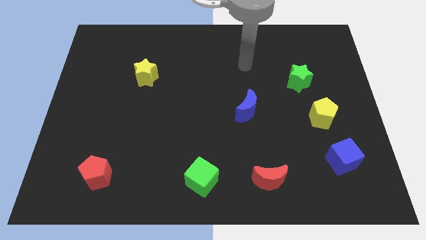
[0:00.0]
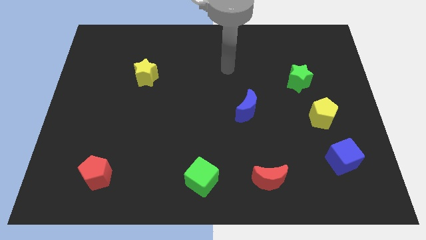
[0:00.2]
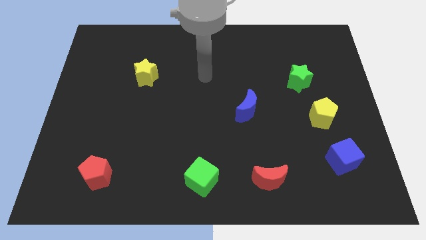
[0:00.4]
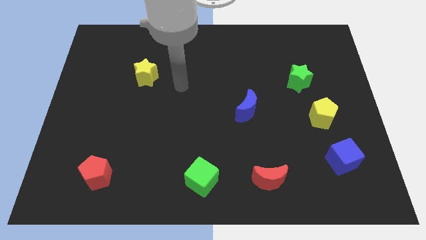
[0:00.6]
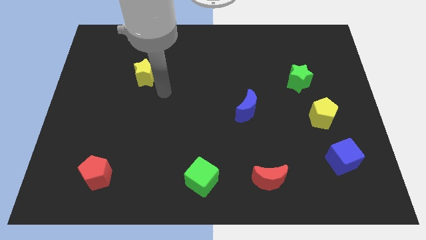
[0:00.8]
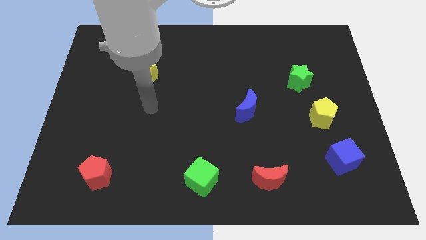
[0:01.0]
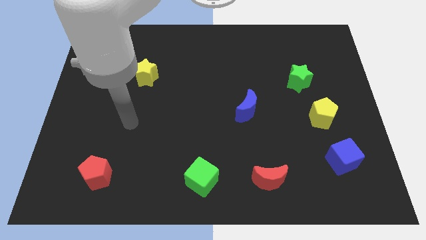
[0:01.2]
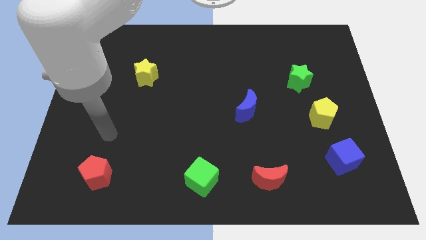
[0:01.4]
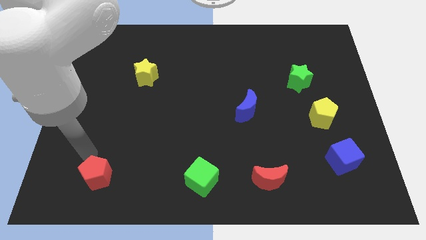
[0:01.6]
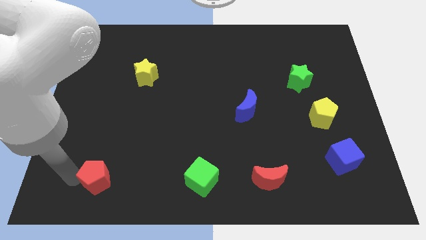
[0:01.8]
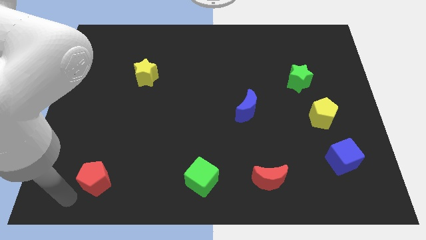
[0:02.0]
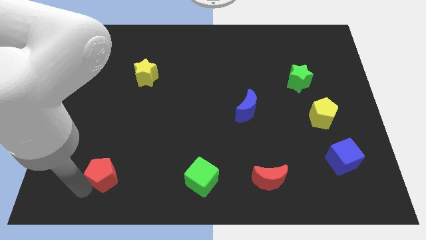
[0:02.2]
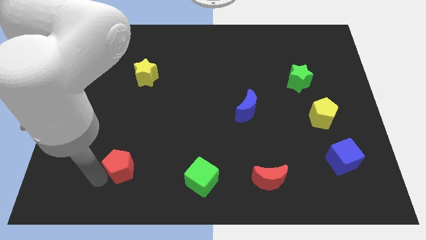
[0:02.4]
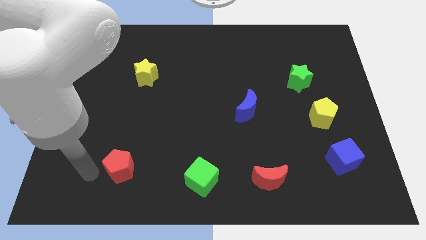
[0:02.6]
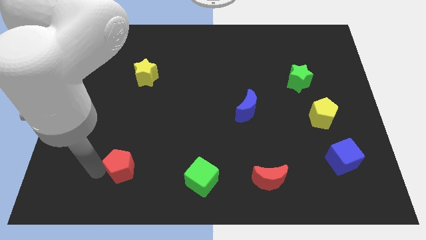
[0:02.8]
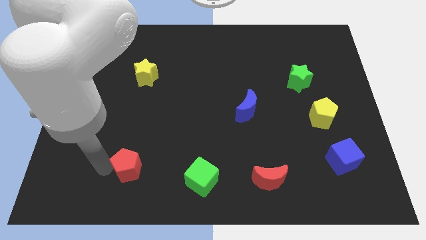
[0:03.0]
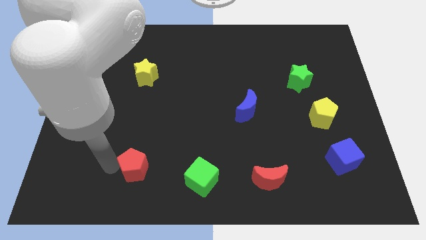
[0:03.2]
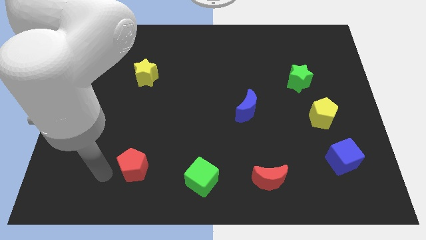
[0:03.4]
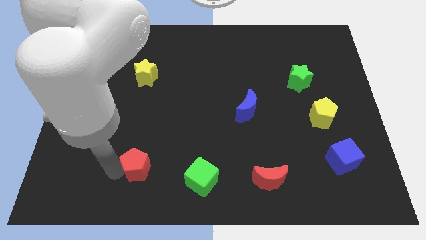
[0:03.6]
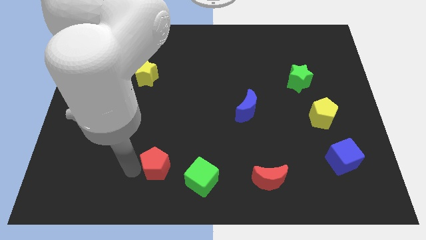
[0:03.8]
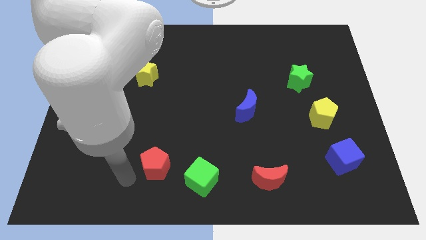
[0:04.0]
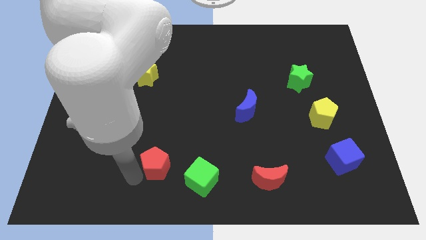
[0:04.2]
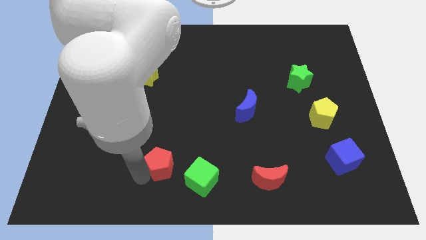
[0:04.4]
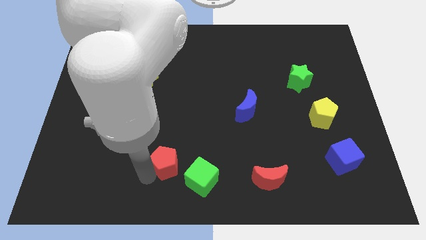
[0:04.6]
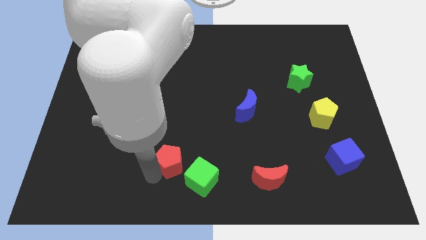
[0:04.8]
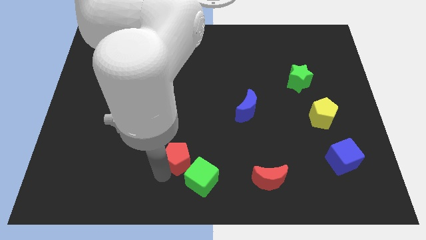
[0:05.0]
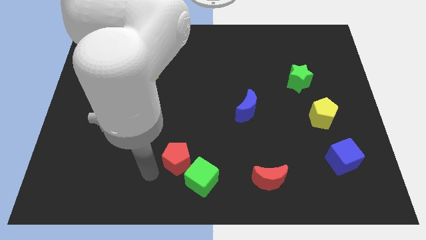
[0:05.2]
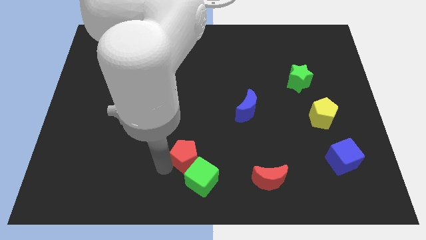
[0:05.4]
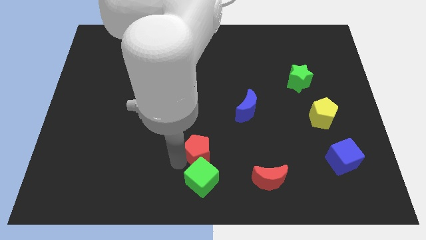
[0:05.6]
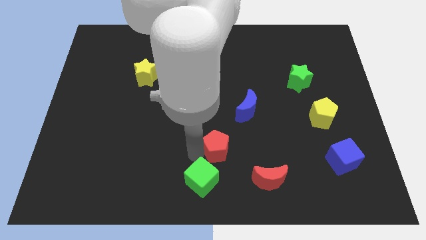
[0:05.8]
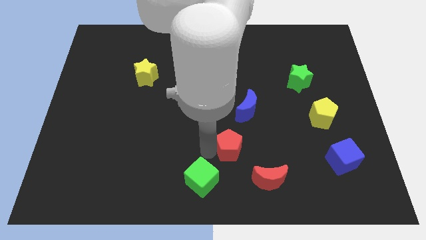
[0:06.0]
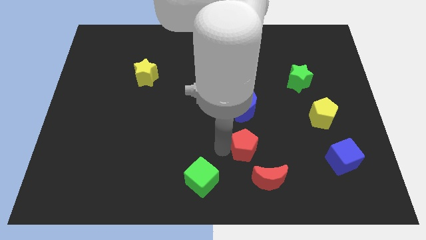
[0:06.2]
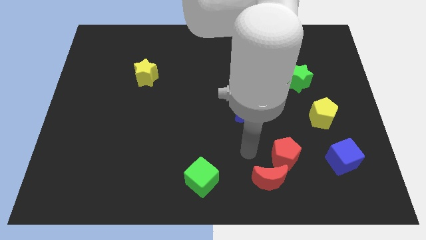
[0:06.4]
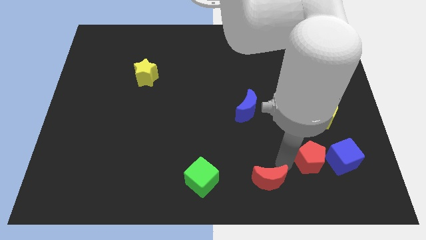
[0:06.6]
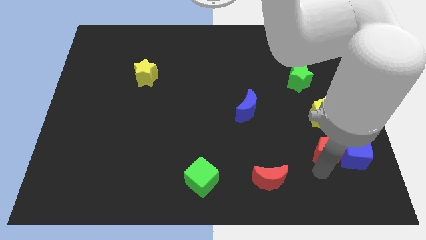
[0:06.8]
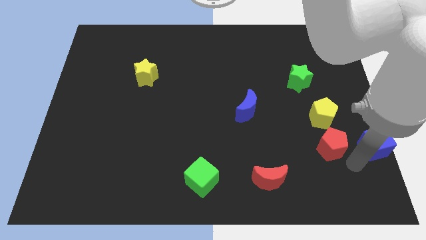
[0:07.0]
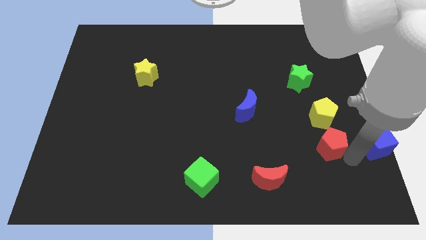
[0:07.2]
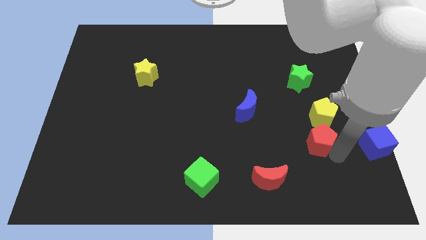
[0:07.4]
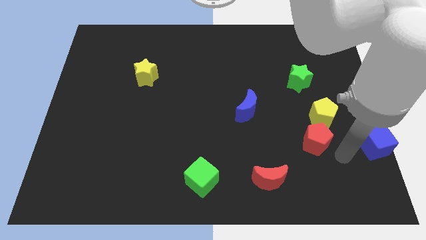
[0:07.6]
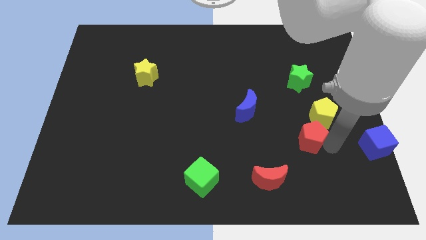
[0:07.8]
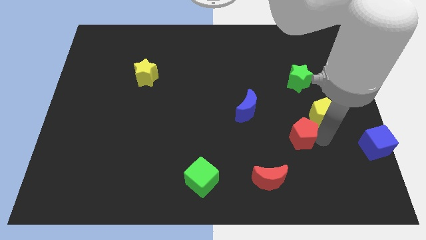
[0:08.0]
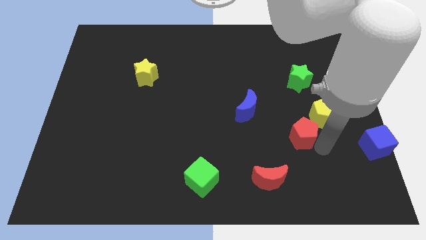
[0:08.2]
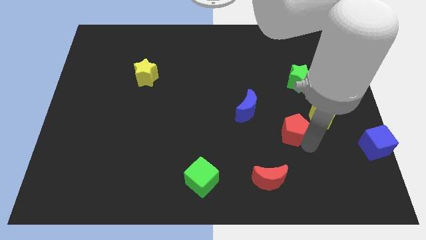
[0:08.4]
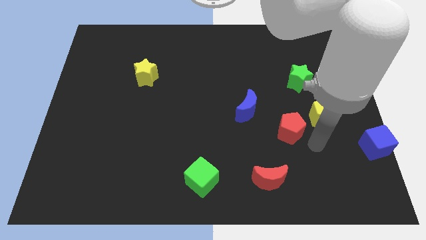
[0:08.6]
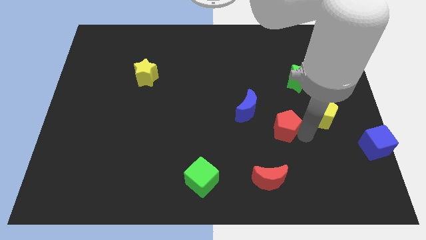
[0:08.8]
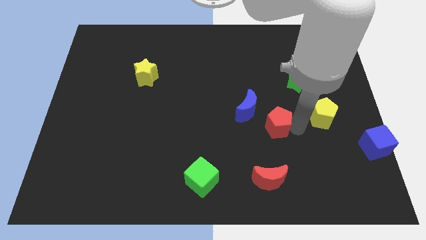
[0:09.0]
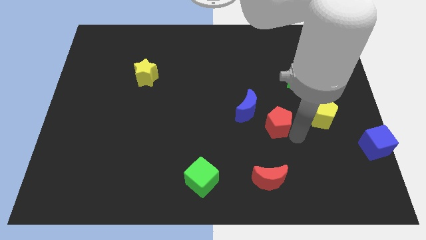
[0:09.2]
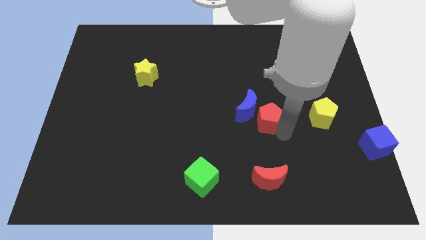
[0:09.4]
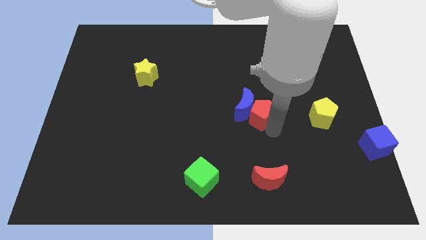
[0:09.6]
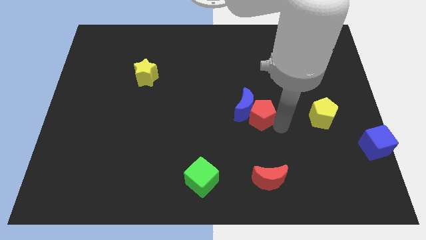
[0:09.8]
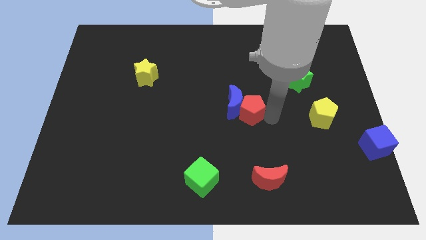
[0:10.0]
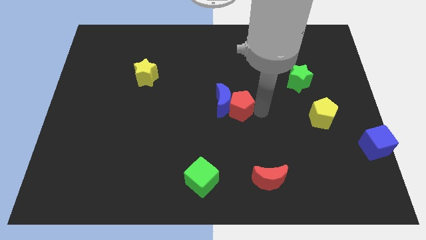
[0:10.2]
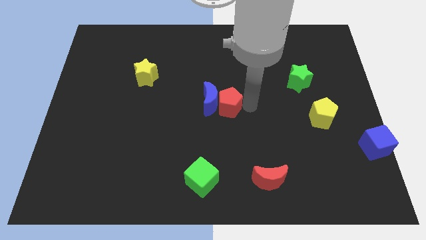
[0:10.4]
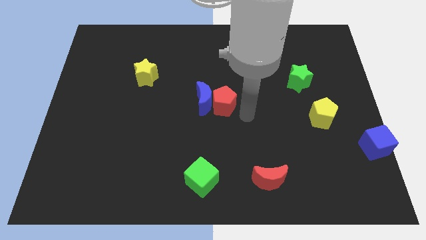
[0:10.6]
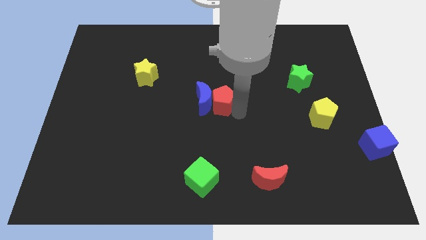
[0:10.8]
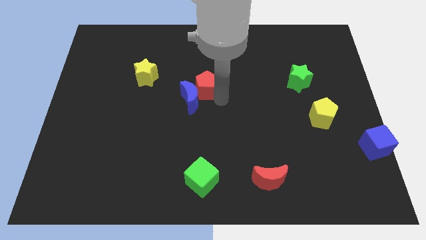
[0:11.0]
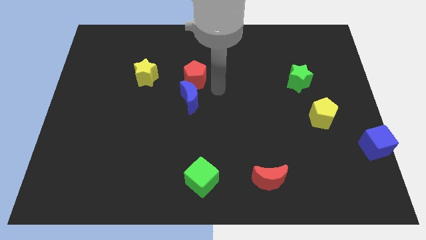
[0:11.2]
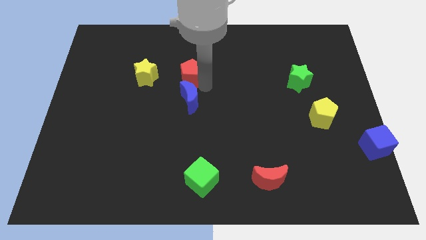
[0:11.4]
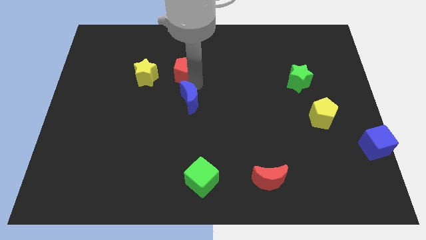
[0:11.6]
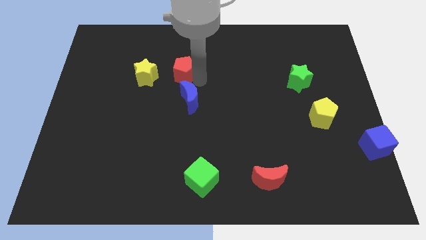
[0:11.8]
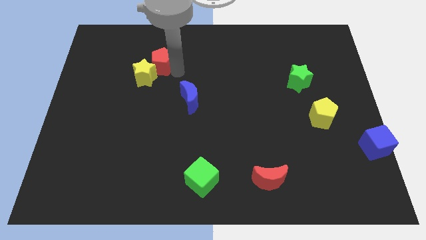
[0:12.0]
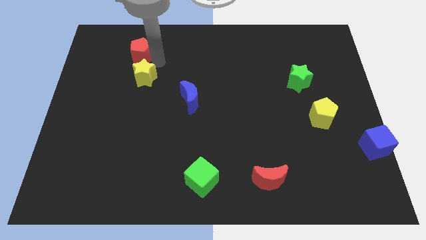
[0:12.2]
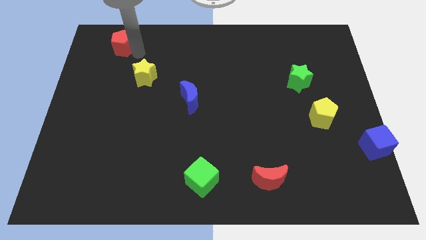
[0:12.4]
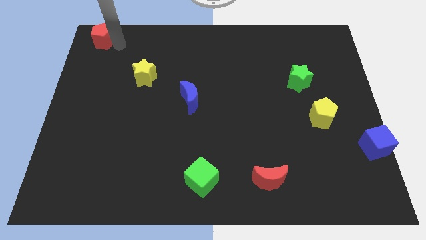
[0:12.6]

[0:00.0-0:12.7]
move the red pentagon to the upper left corner

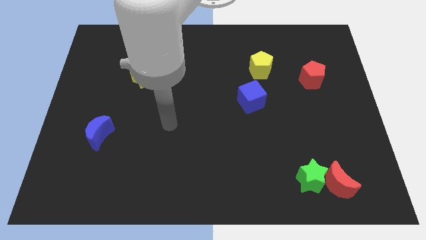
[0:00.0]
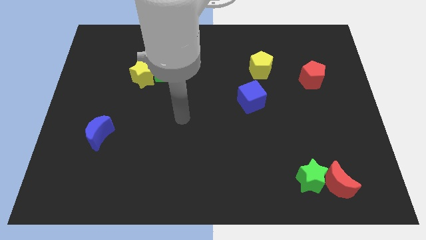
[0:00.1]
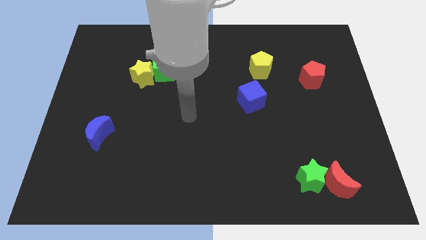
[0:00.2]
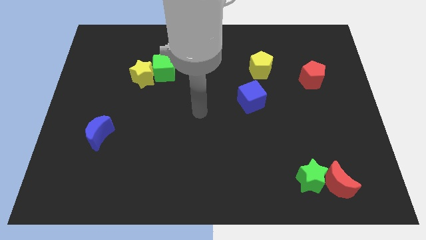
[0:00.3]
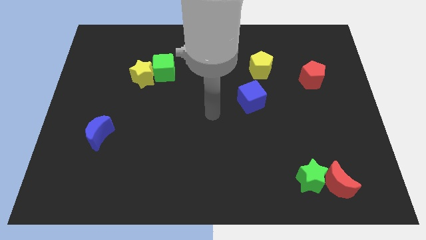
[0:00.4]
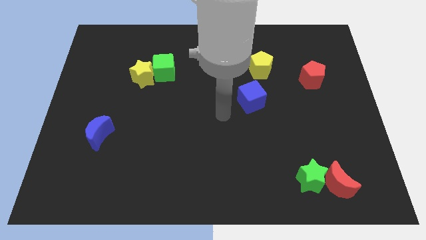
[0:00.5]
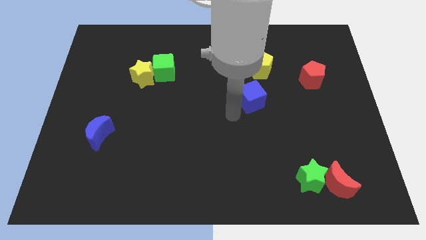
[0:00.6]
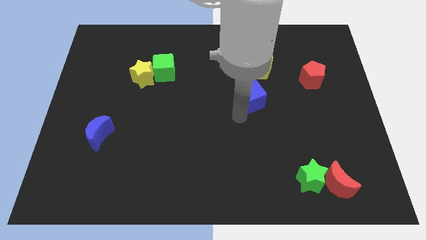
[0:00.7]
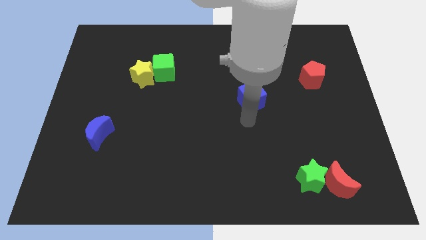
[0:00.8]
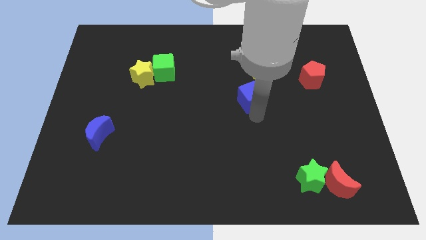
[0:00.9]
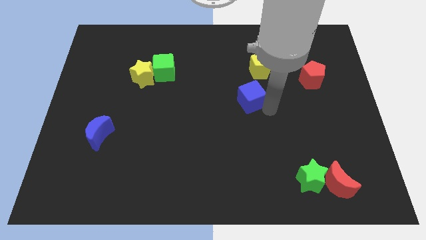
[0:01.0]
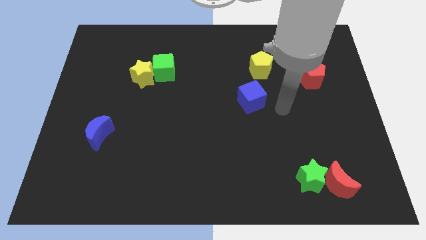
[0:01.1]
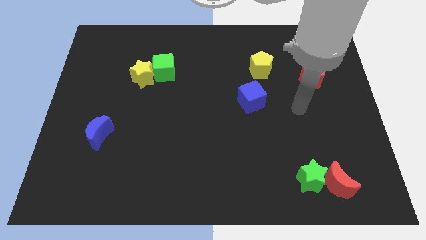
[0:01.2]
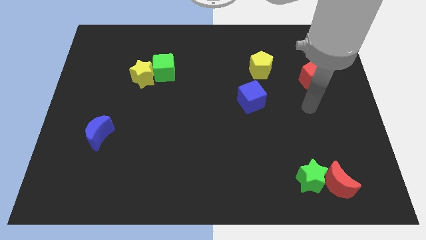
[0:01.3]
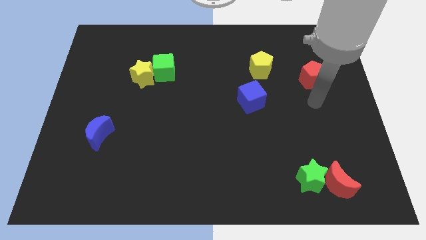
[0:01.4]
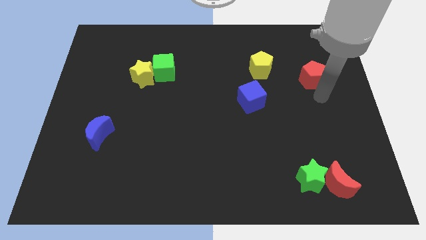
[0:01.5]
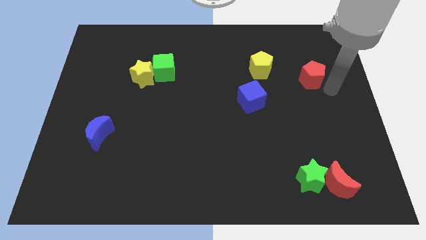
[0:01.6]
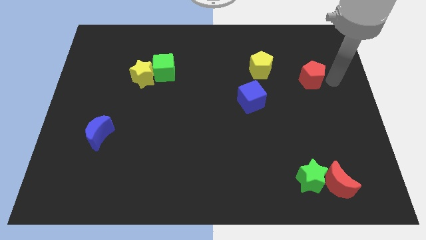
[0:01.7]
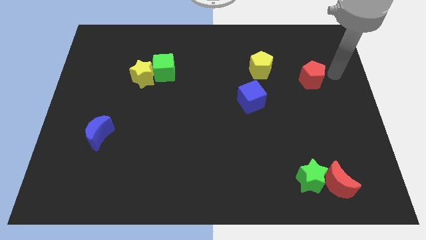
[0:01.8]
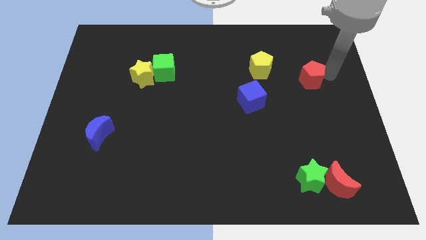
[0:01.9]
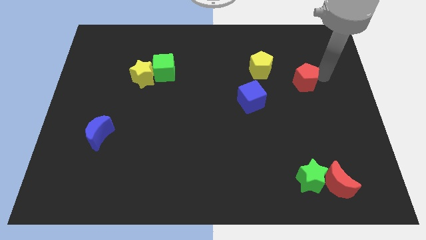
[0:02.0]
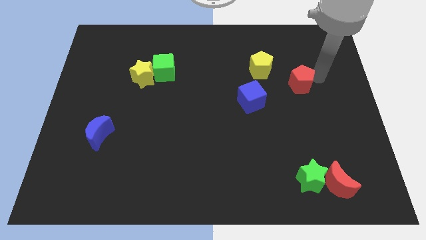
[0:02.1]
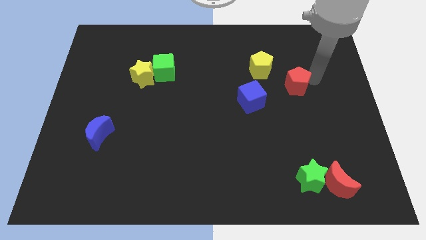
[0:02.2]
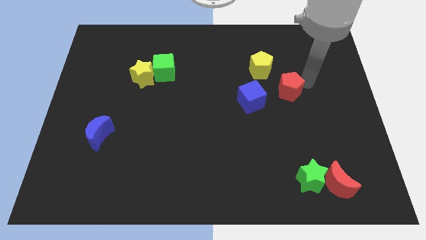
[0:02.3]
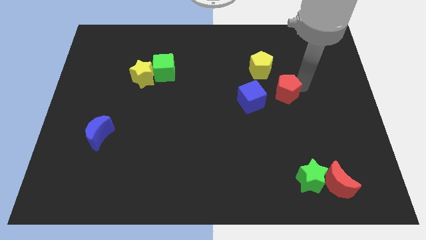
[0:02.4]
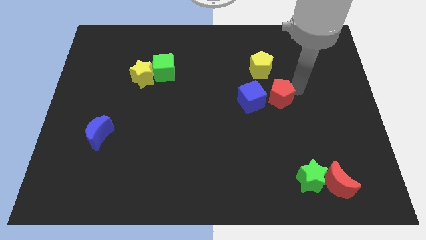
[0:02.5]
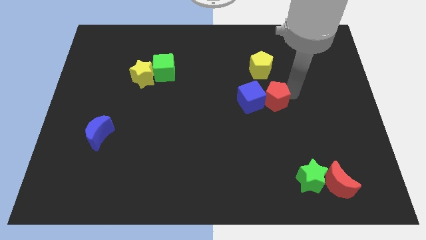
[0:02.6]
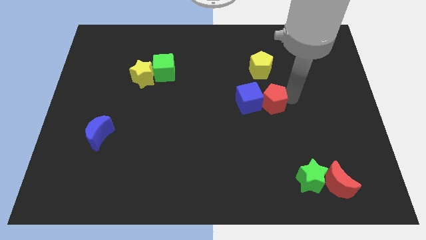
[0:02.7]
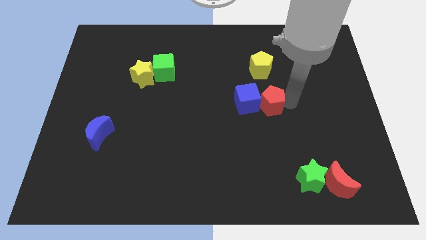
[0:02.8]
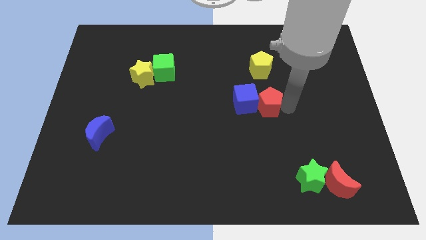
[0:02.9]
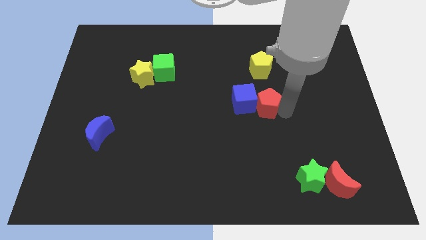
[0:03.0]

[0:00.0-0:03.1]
push the red pentagon to the center
